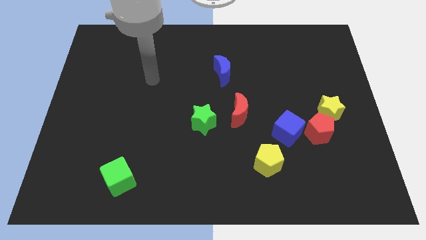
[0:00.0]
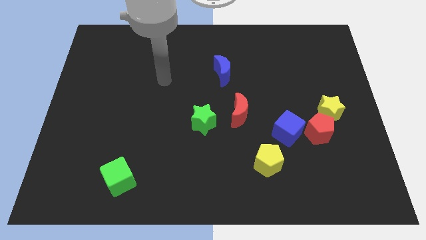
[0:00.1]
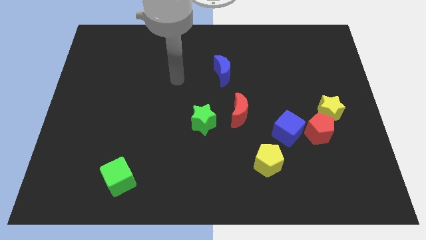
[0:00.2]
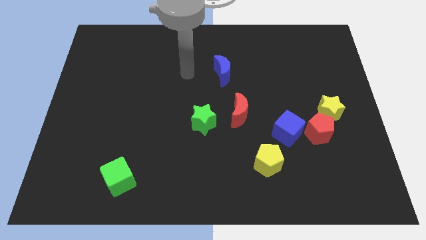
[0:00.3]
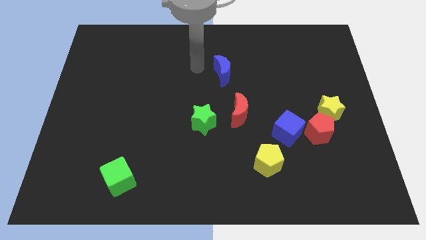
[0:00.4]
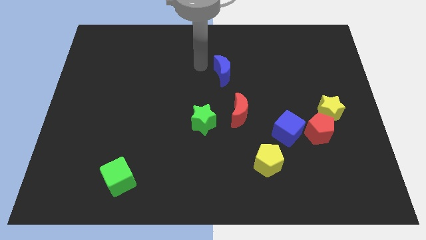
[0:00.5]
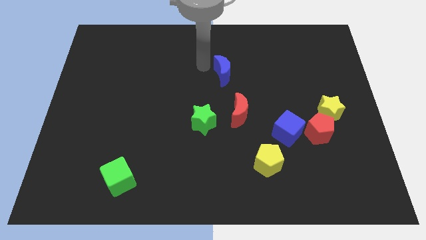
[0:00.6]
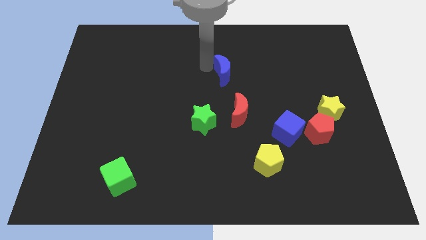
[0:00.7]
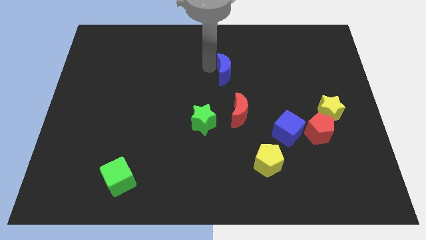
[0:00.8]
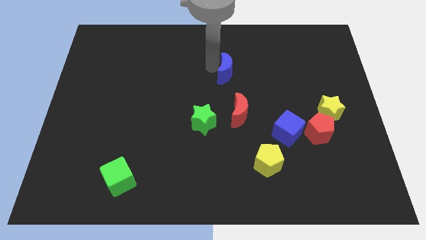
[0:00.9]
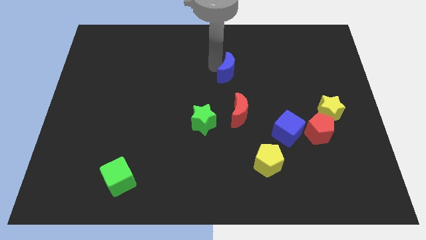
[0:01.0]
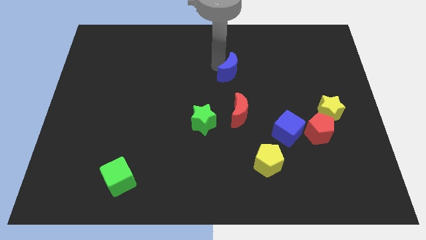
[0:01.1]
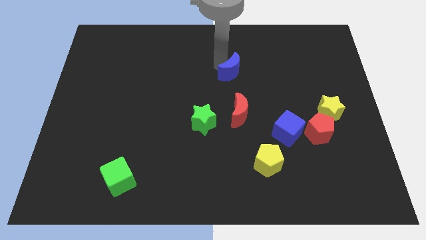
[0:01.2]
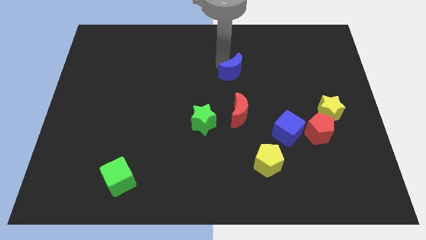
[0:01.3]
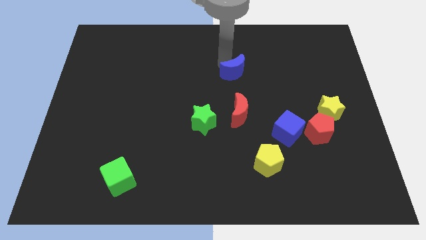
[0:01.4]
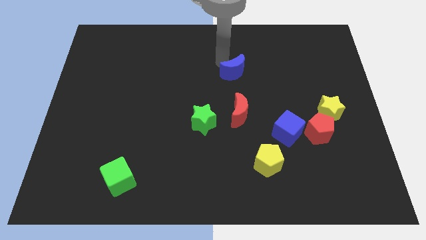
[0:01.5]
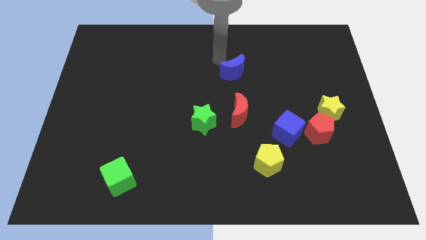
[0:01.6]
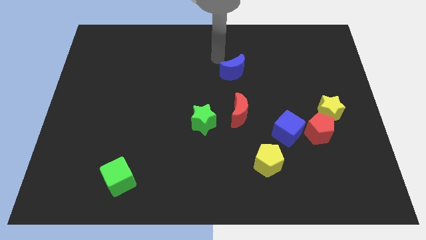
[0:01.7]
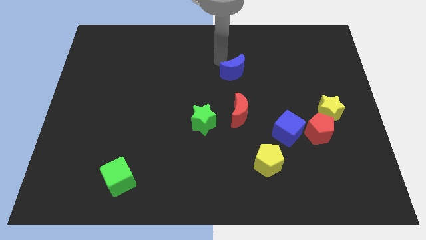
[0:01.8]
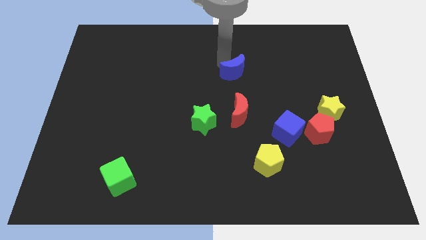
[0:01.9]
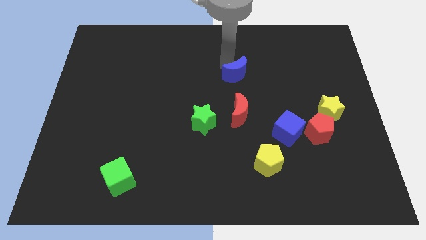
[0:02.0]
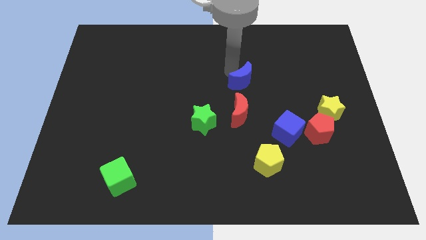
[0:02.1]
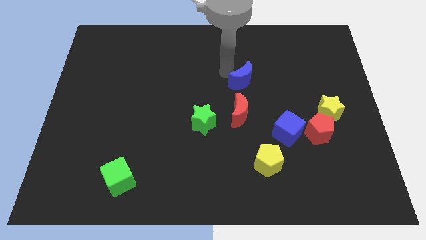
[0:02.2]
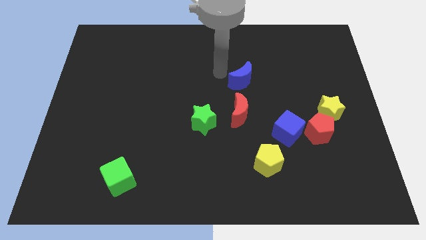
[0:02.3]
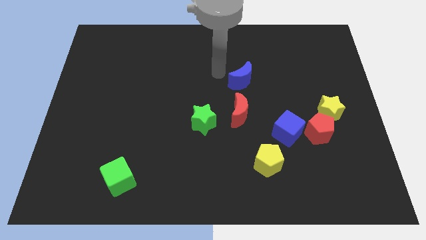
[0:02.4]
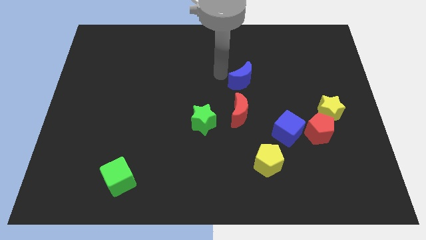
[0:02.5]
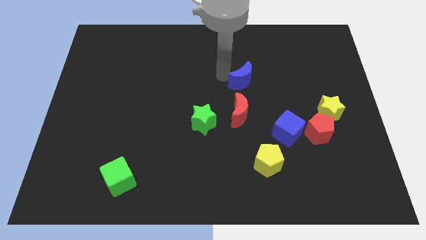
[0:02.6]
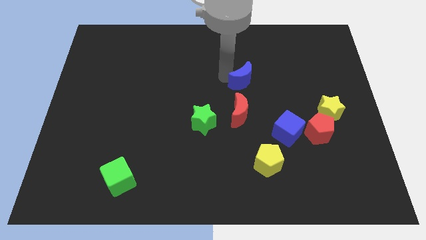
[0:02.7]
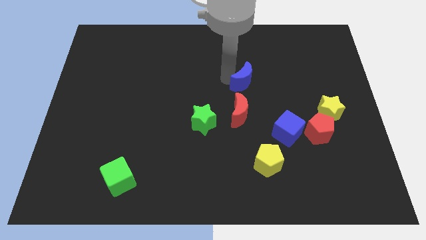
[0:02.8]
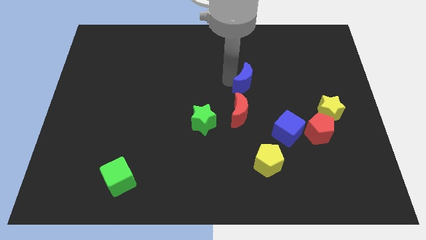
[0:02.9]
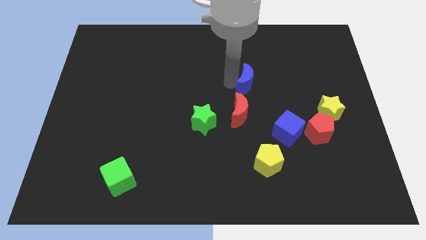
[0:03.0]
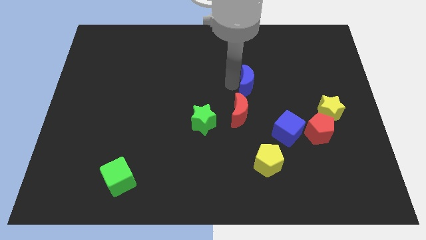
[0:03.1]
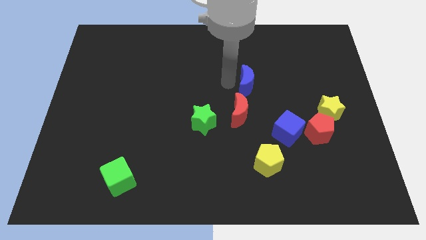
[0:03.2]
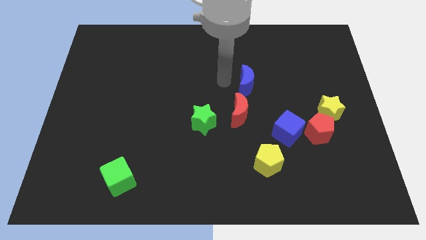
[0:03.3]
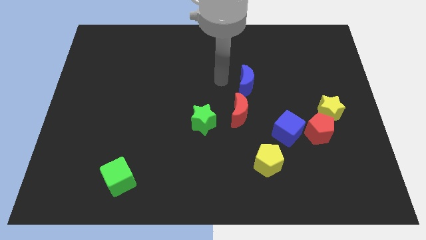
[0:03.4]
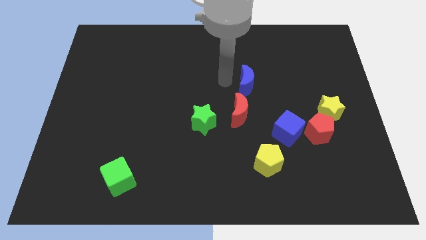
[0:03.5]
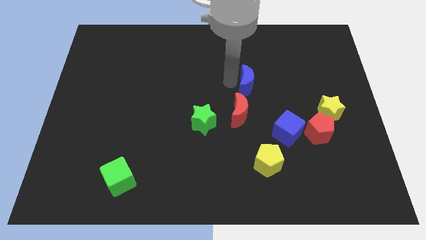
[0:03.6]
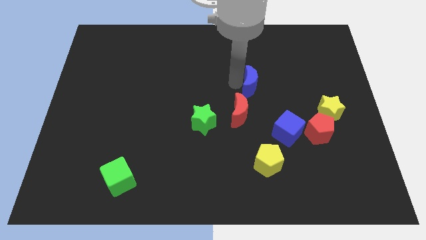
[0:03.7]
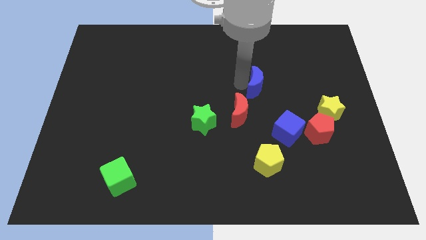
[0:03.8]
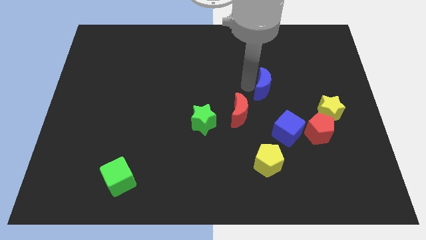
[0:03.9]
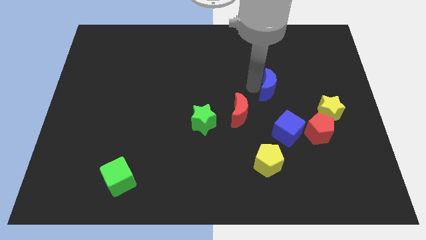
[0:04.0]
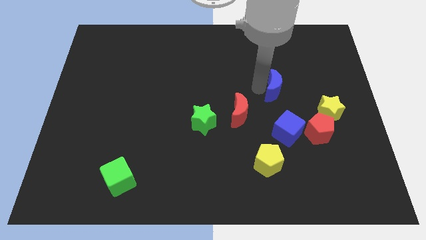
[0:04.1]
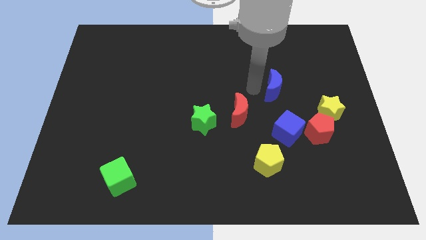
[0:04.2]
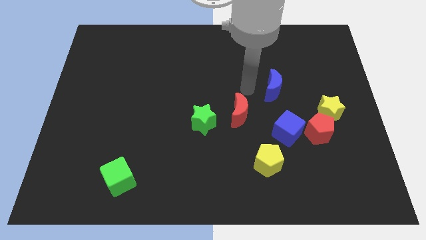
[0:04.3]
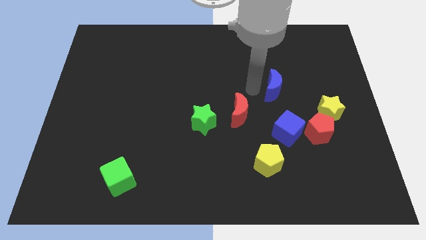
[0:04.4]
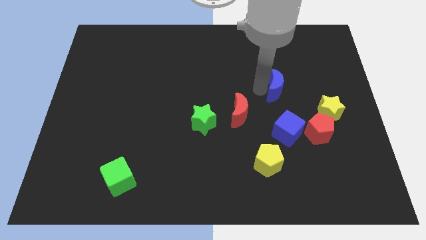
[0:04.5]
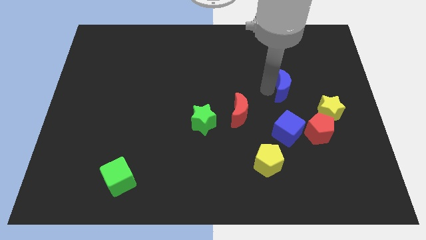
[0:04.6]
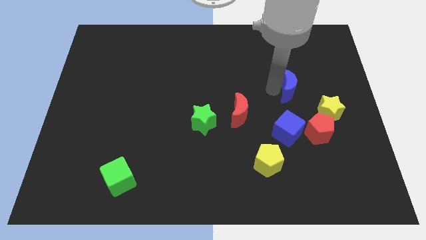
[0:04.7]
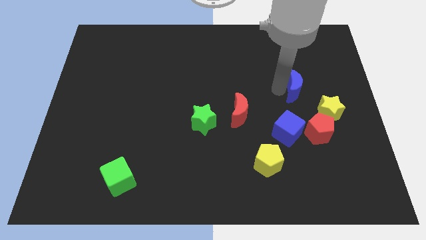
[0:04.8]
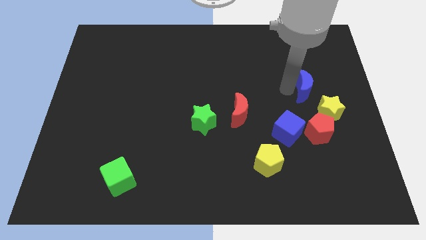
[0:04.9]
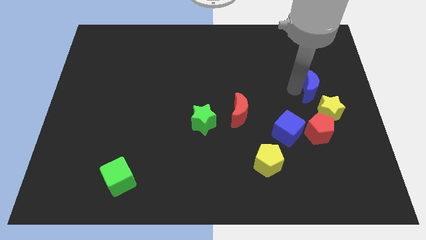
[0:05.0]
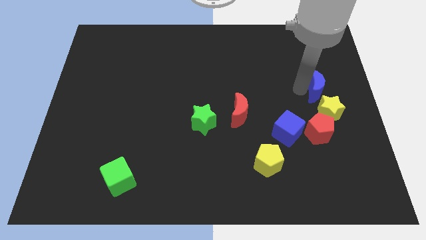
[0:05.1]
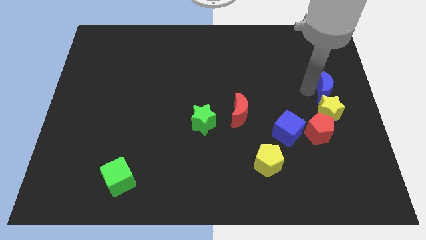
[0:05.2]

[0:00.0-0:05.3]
slide the blue moon to the right side of the board

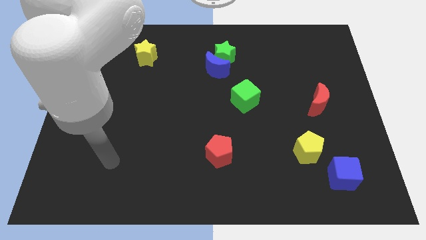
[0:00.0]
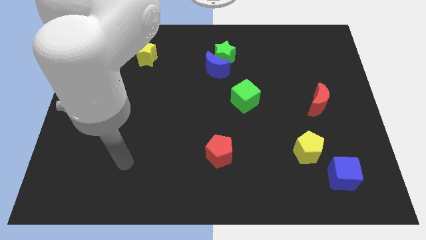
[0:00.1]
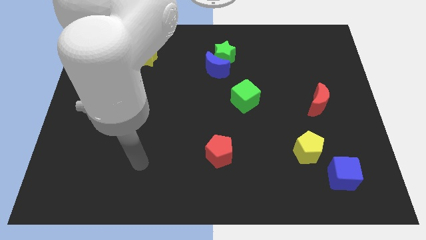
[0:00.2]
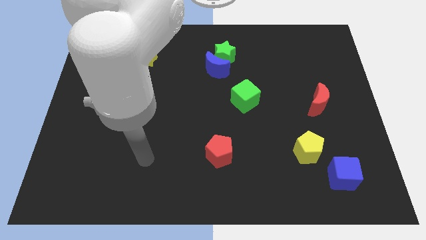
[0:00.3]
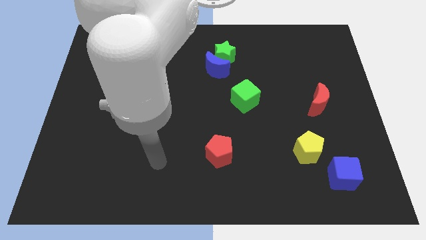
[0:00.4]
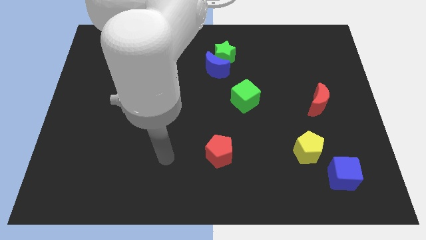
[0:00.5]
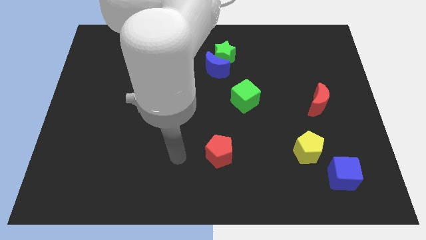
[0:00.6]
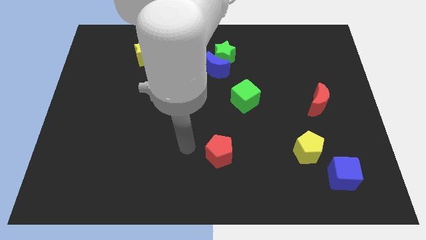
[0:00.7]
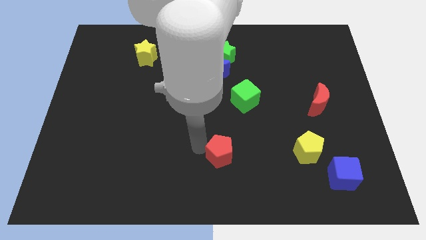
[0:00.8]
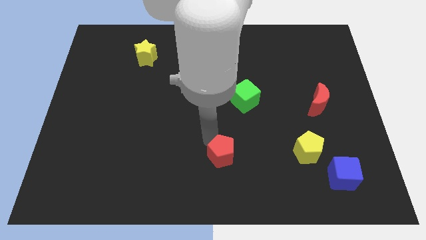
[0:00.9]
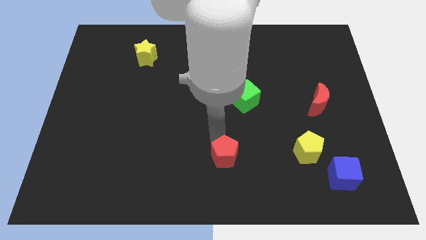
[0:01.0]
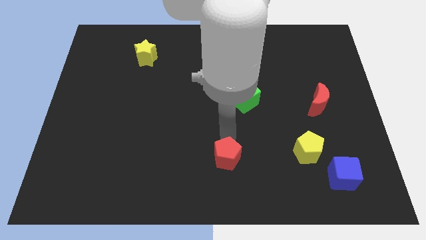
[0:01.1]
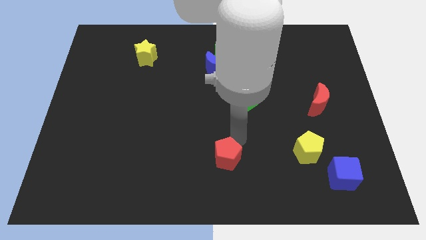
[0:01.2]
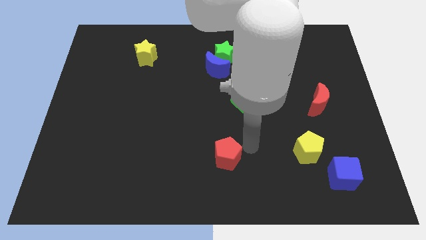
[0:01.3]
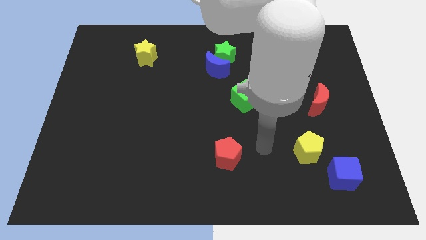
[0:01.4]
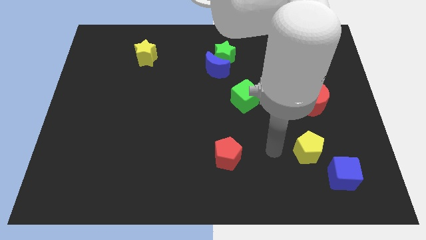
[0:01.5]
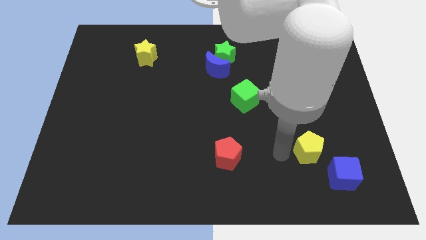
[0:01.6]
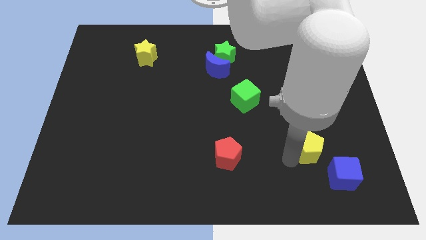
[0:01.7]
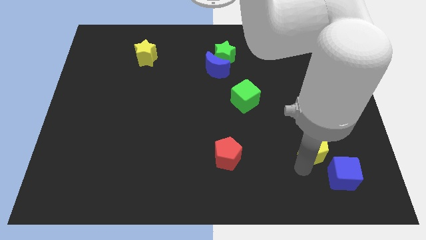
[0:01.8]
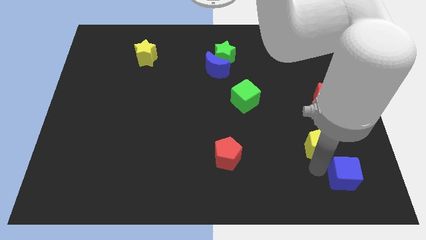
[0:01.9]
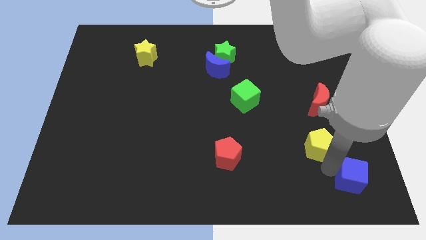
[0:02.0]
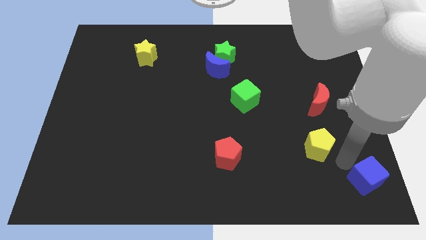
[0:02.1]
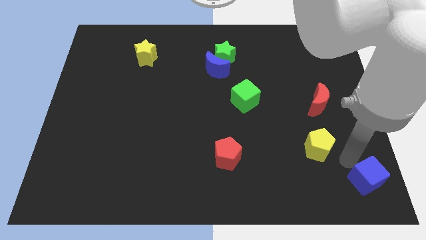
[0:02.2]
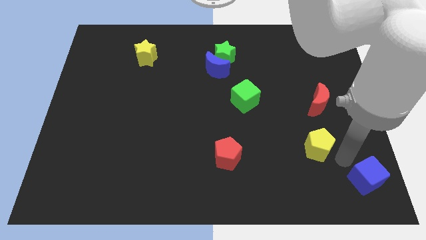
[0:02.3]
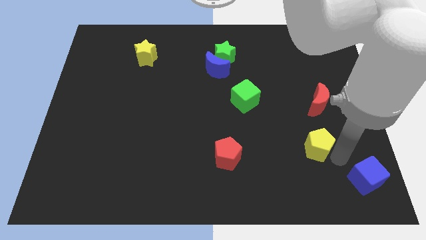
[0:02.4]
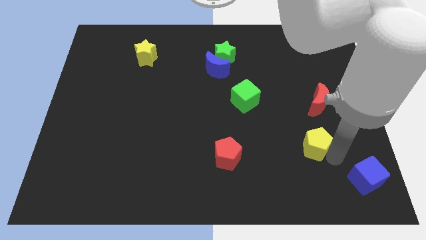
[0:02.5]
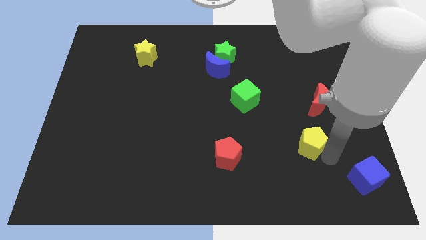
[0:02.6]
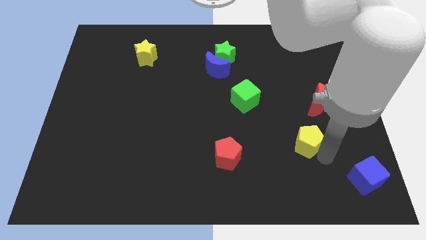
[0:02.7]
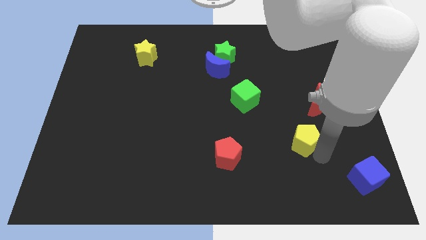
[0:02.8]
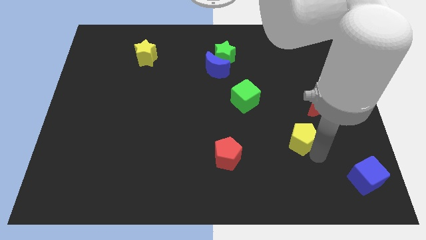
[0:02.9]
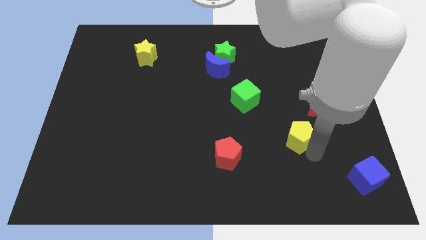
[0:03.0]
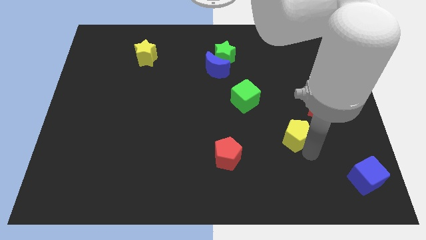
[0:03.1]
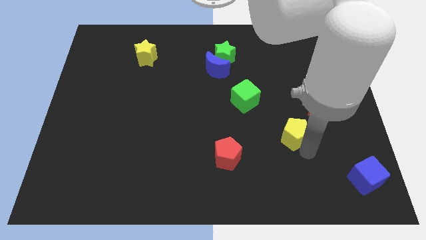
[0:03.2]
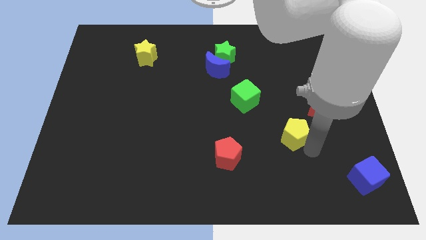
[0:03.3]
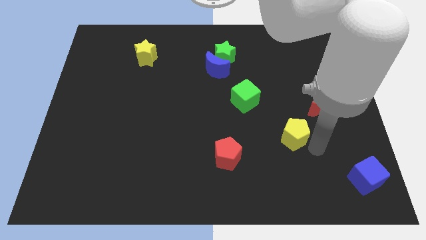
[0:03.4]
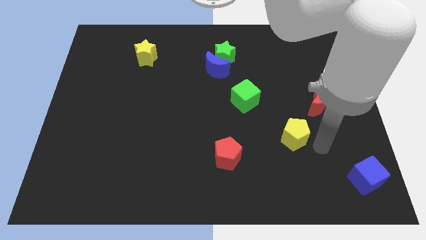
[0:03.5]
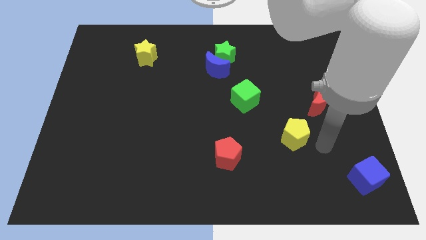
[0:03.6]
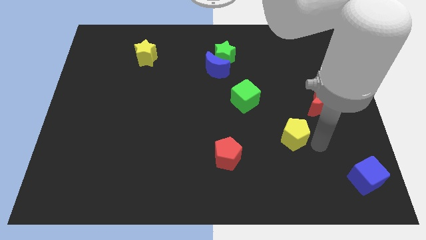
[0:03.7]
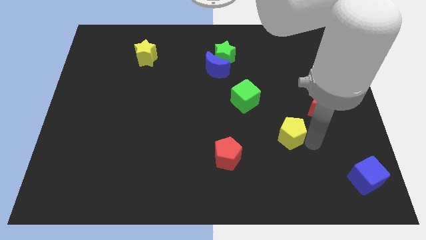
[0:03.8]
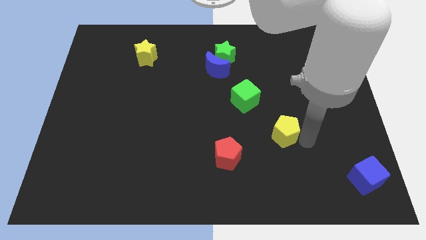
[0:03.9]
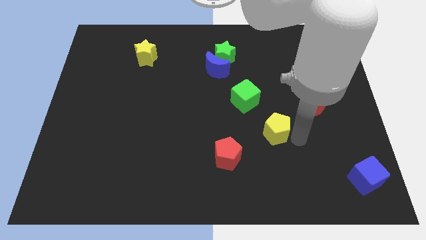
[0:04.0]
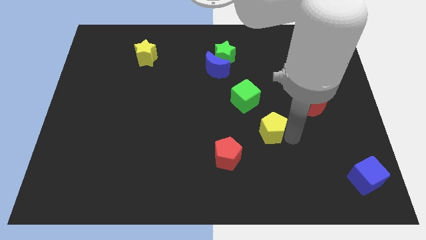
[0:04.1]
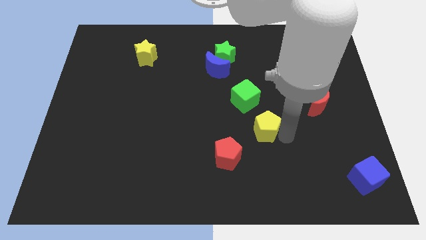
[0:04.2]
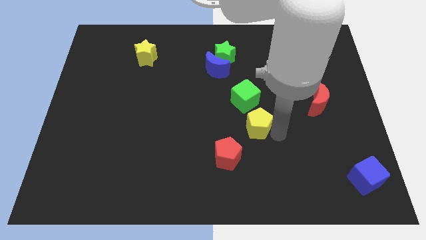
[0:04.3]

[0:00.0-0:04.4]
put the yellow pentagon to the middle of the board
